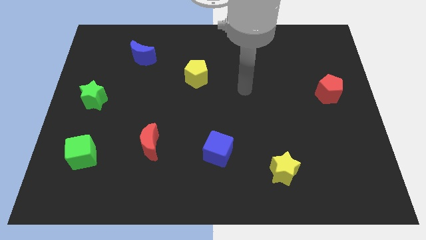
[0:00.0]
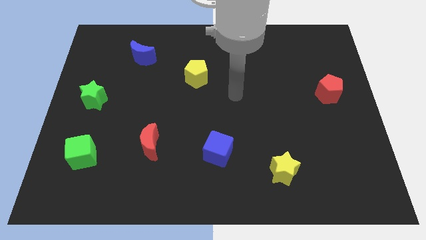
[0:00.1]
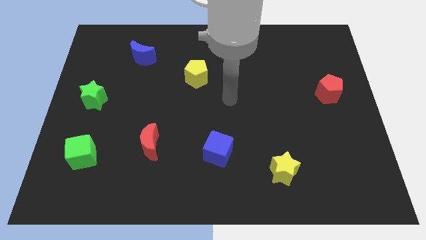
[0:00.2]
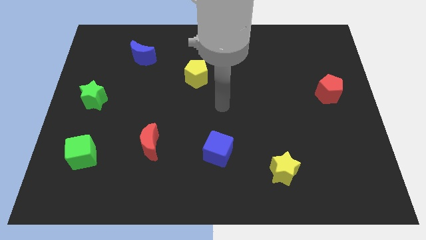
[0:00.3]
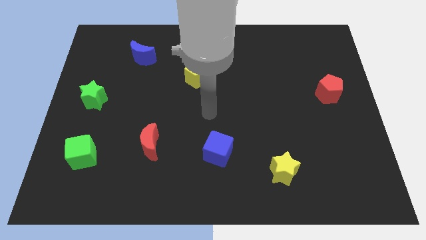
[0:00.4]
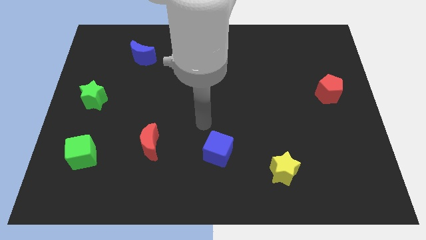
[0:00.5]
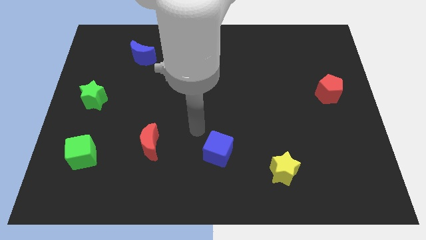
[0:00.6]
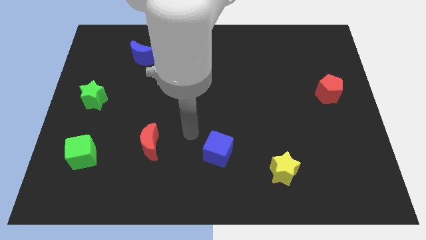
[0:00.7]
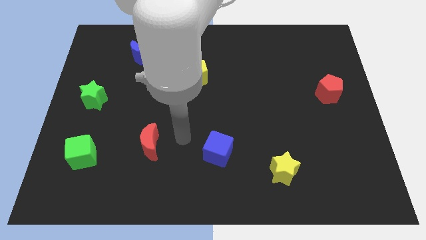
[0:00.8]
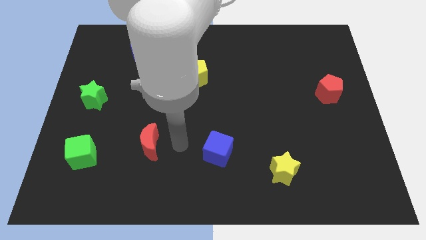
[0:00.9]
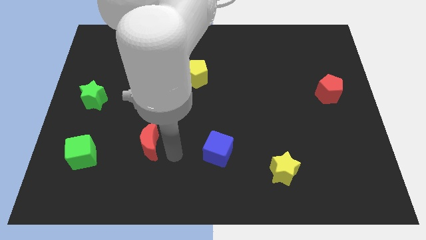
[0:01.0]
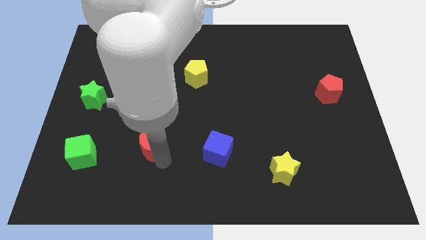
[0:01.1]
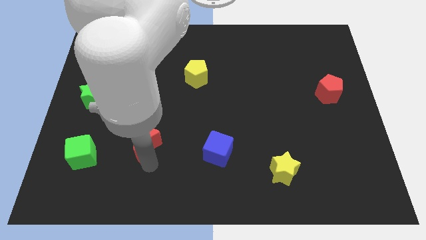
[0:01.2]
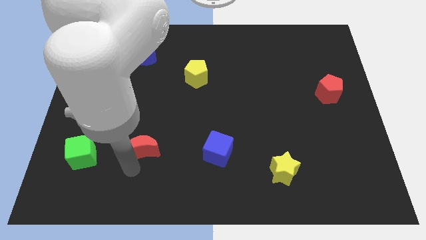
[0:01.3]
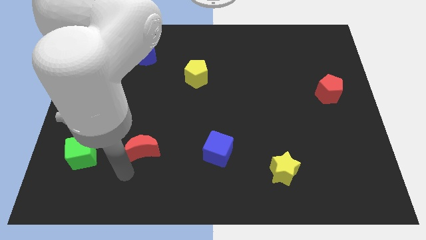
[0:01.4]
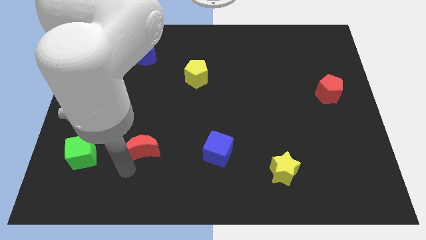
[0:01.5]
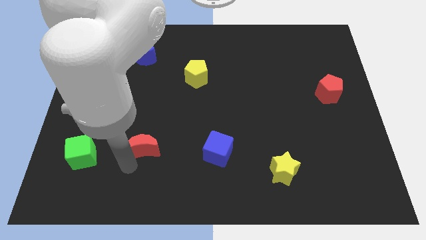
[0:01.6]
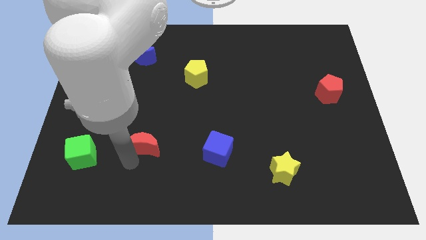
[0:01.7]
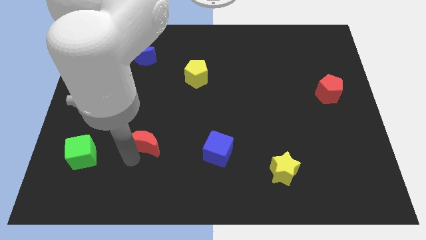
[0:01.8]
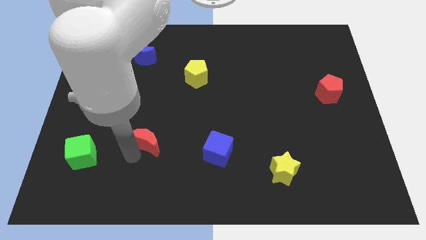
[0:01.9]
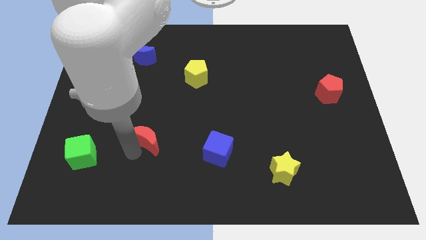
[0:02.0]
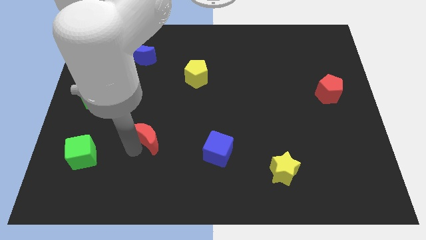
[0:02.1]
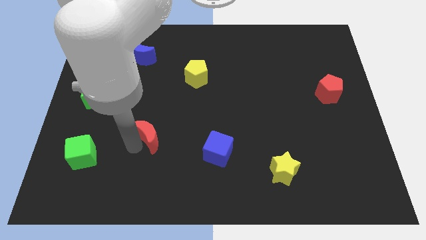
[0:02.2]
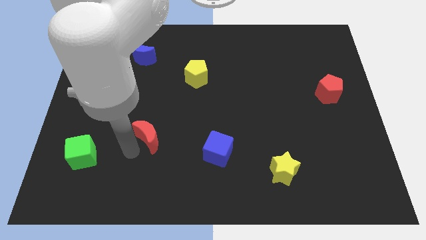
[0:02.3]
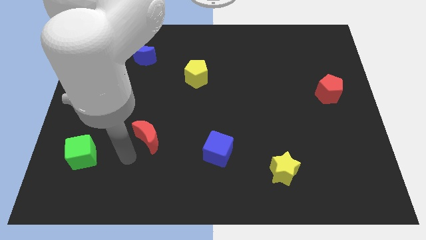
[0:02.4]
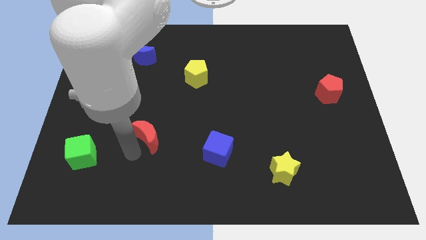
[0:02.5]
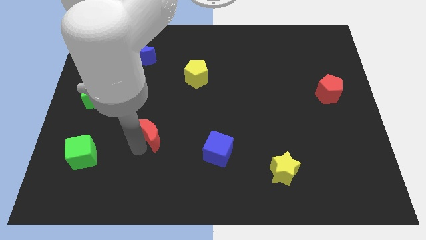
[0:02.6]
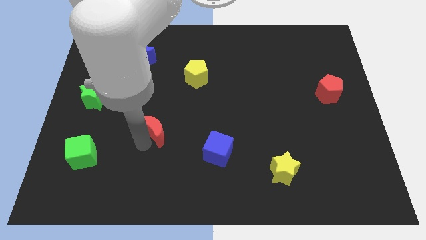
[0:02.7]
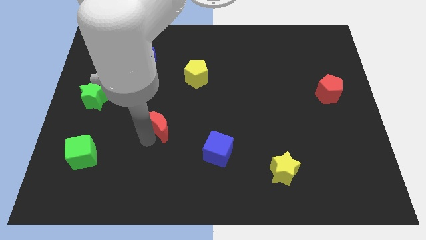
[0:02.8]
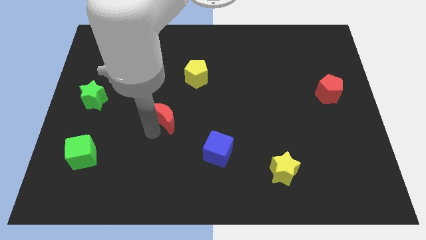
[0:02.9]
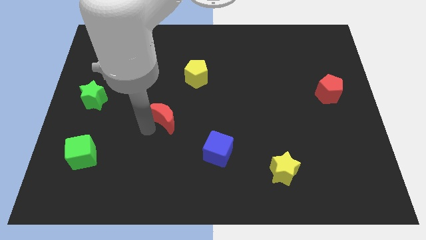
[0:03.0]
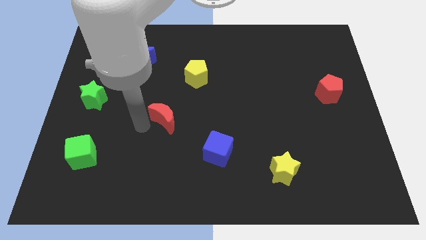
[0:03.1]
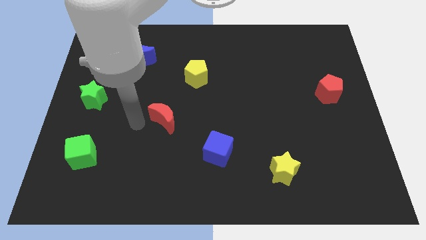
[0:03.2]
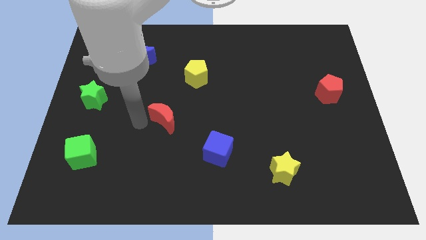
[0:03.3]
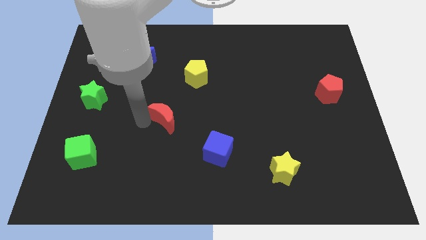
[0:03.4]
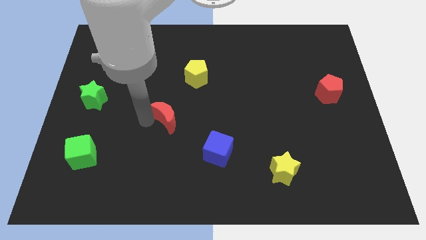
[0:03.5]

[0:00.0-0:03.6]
push the red moon a little diagonally up and right

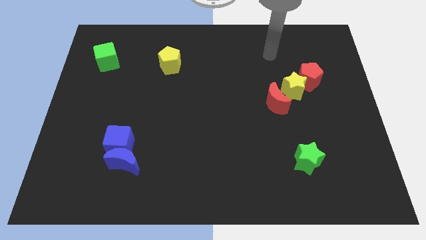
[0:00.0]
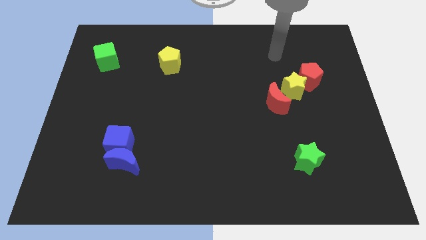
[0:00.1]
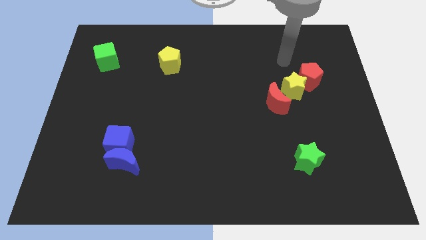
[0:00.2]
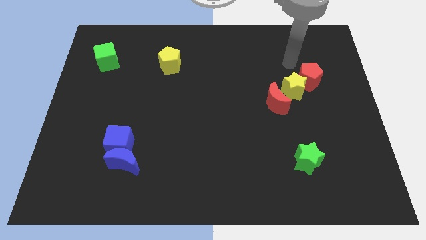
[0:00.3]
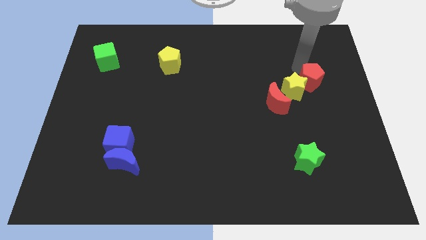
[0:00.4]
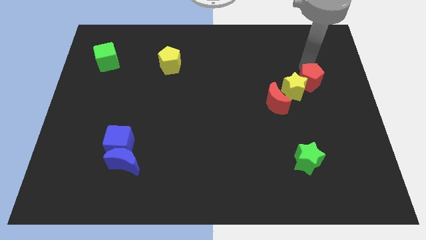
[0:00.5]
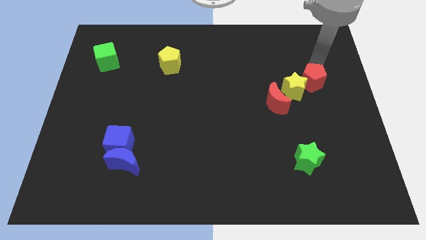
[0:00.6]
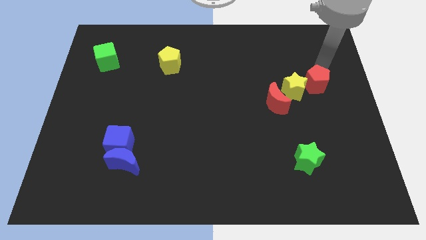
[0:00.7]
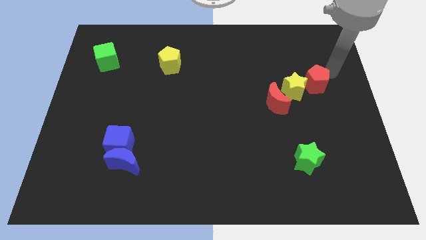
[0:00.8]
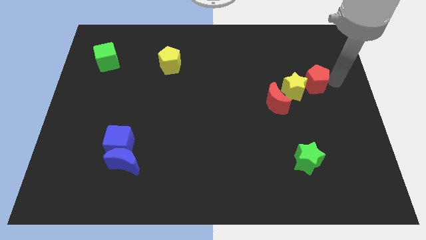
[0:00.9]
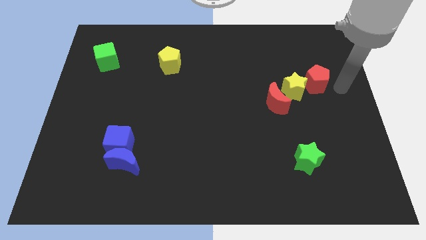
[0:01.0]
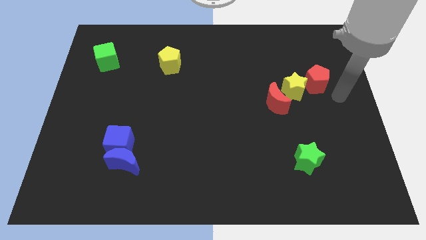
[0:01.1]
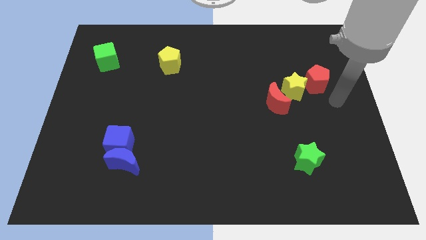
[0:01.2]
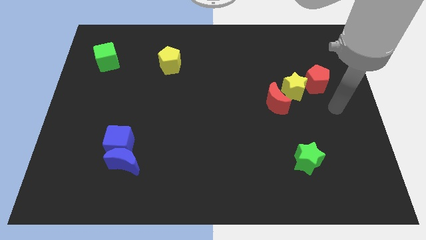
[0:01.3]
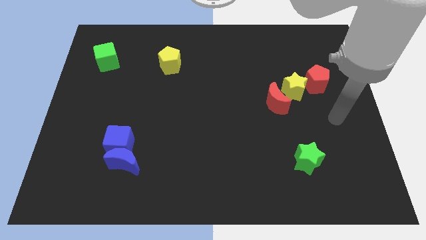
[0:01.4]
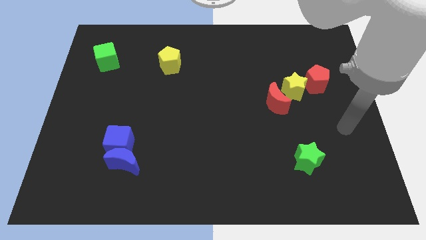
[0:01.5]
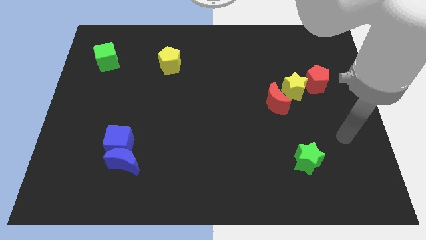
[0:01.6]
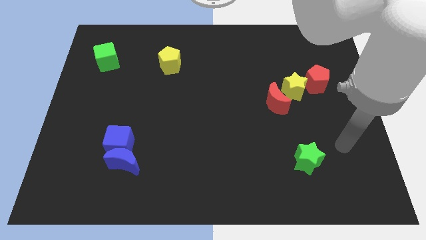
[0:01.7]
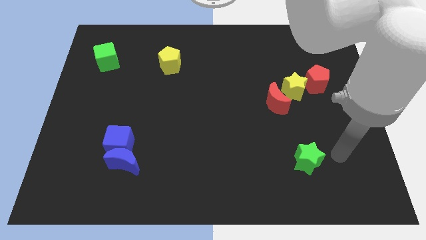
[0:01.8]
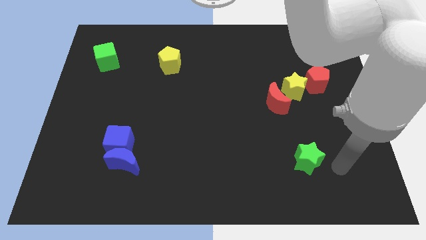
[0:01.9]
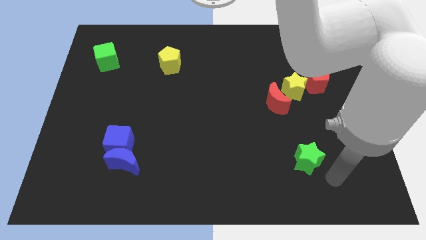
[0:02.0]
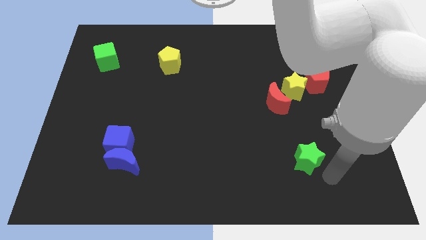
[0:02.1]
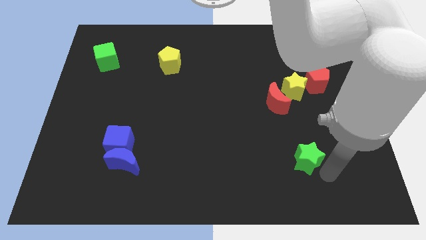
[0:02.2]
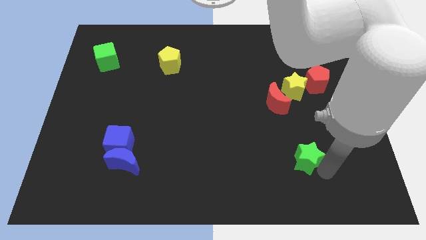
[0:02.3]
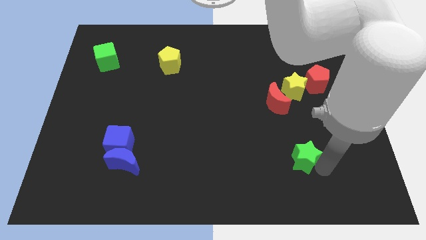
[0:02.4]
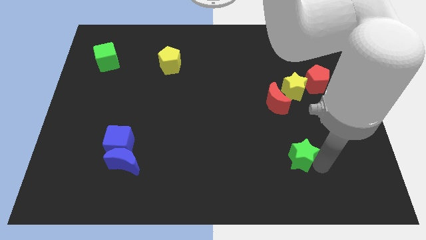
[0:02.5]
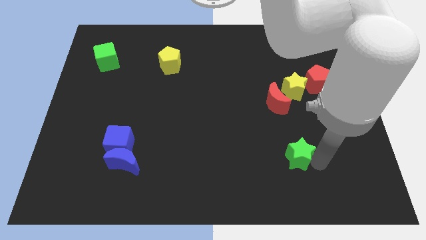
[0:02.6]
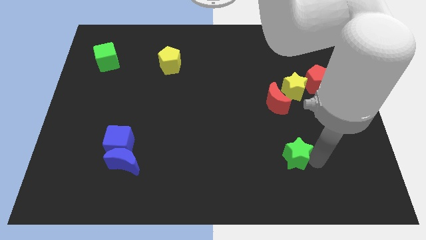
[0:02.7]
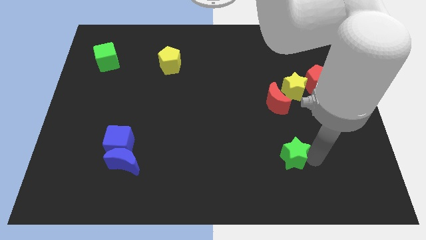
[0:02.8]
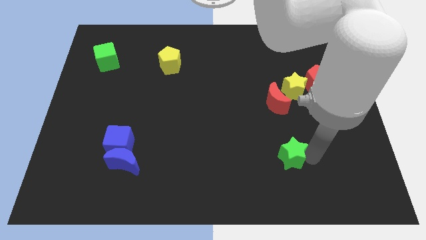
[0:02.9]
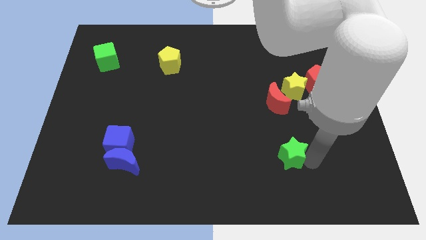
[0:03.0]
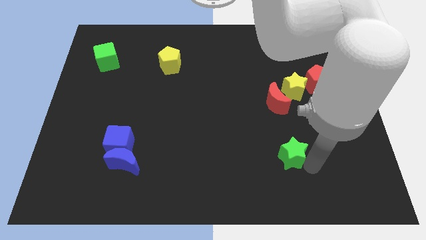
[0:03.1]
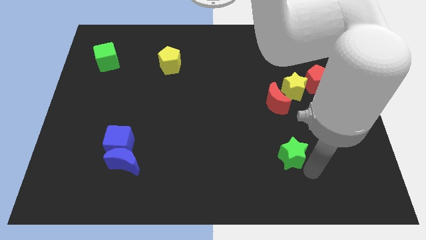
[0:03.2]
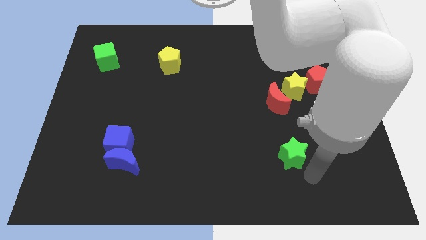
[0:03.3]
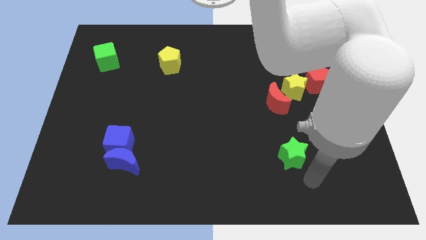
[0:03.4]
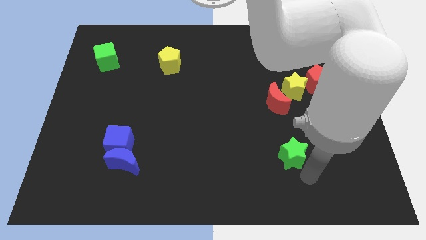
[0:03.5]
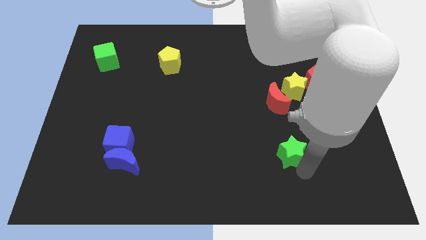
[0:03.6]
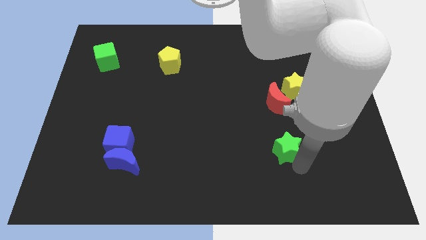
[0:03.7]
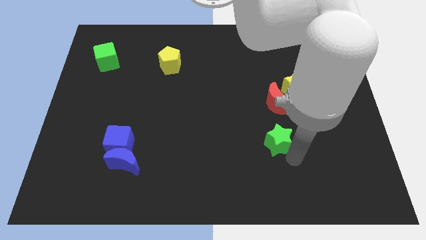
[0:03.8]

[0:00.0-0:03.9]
move the green star up and to the left diagonally a little

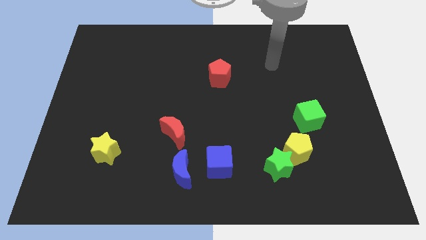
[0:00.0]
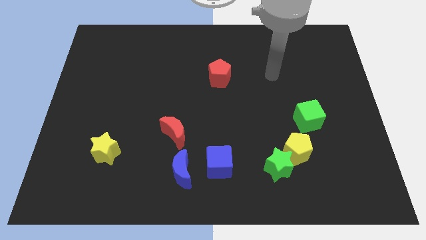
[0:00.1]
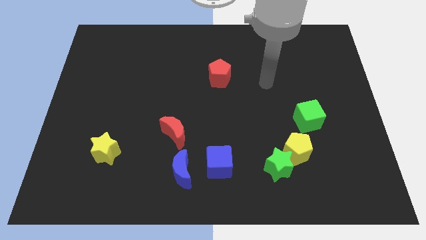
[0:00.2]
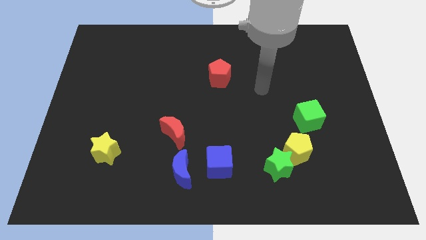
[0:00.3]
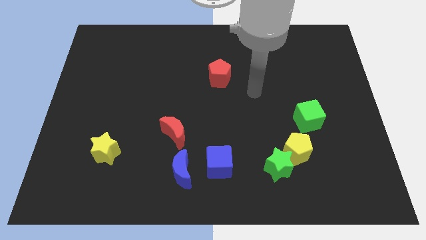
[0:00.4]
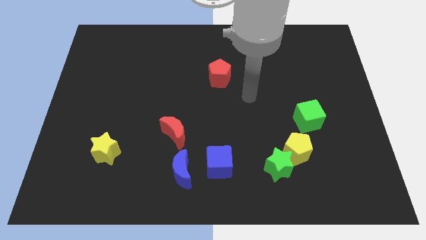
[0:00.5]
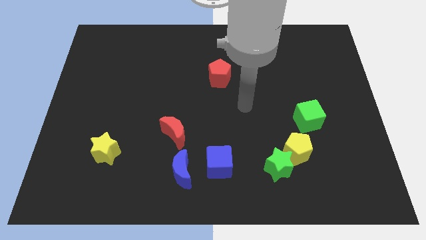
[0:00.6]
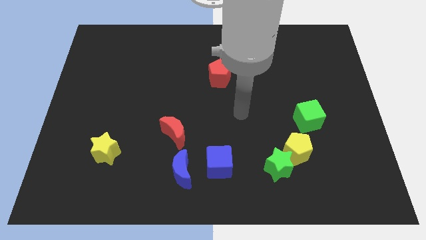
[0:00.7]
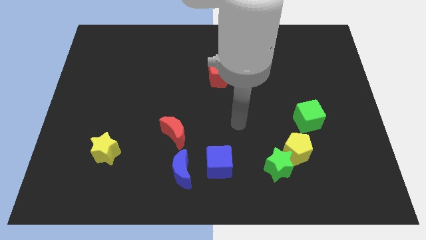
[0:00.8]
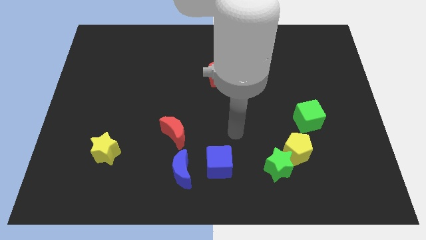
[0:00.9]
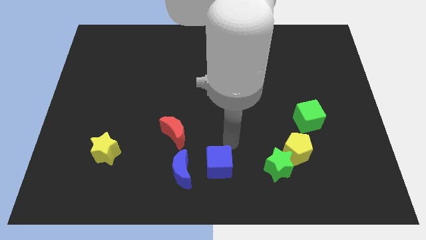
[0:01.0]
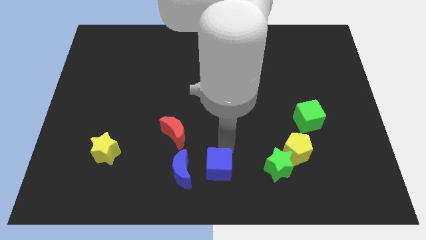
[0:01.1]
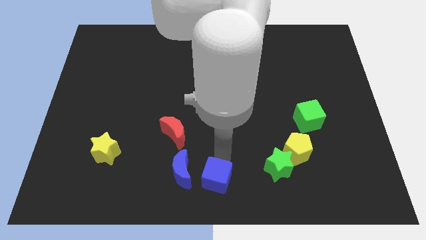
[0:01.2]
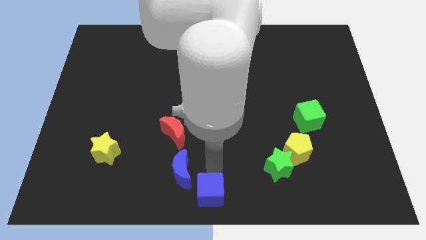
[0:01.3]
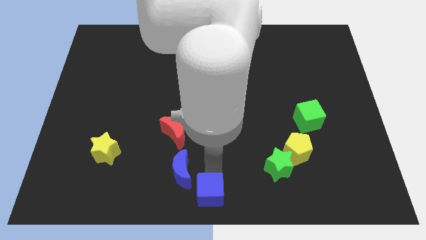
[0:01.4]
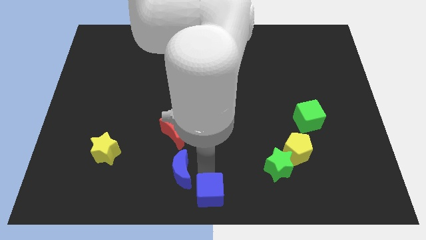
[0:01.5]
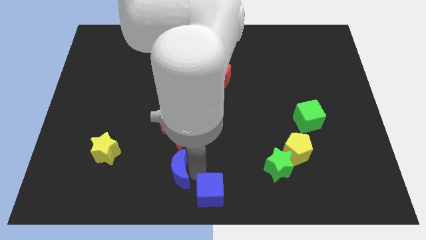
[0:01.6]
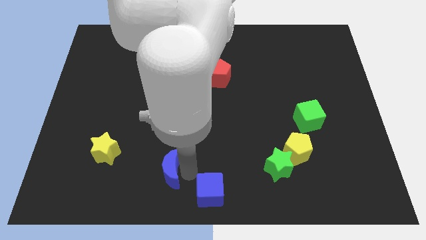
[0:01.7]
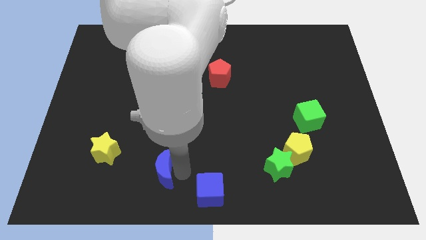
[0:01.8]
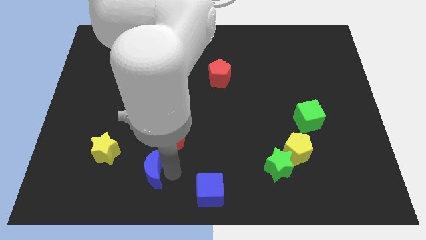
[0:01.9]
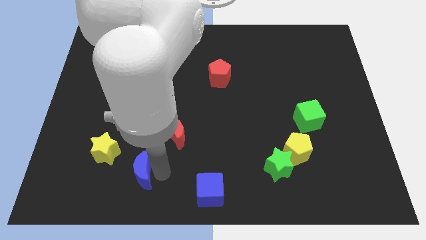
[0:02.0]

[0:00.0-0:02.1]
slightly slide the blue moon left
